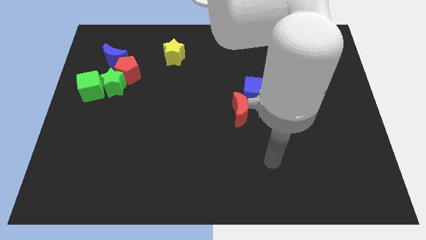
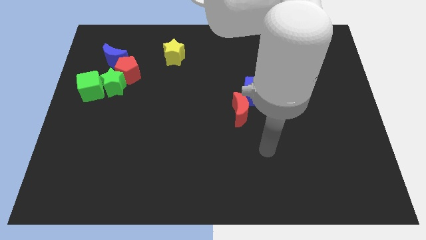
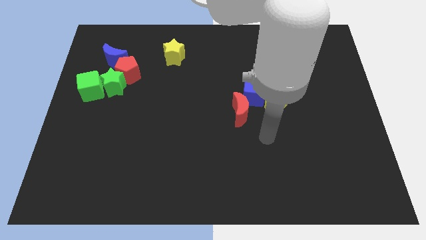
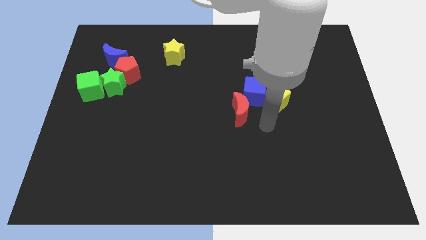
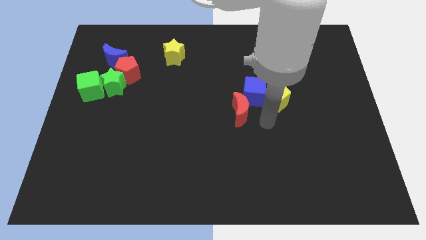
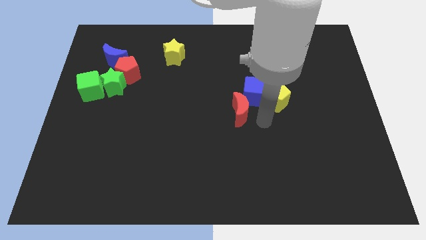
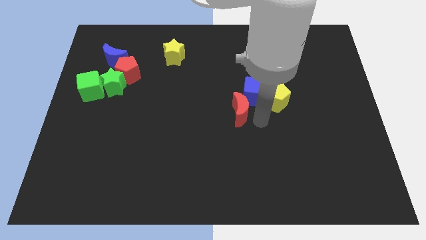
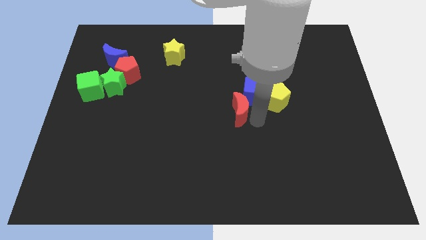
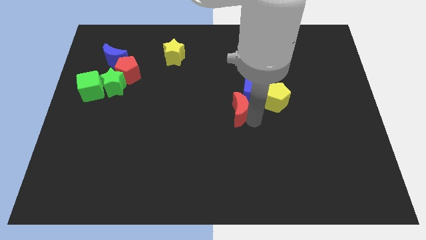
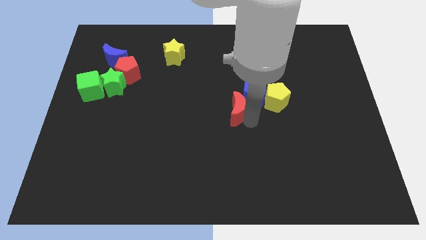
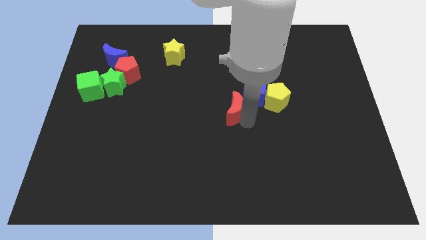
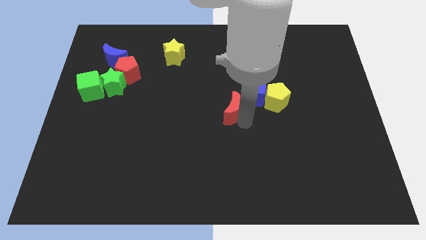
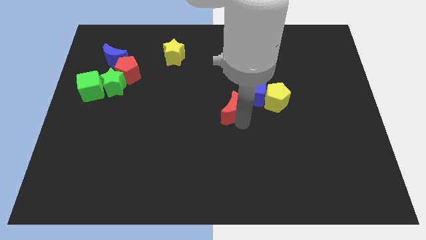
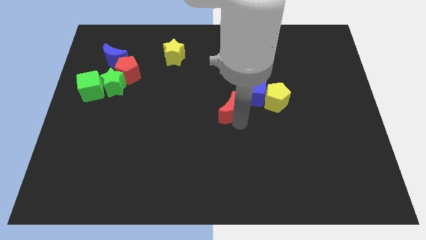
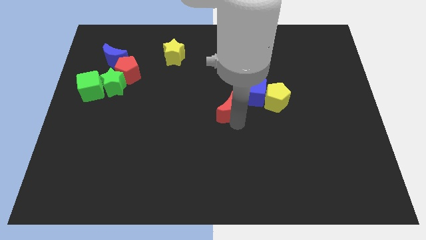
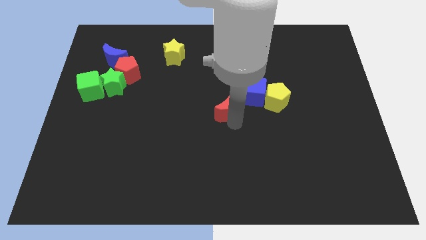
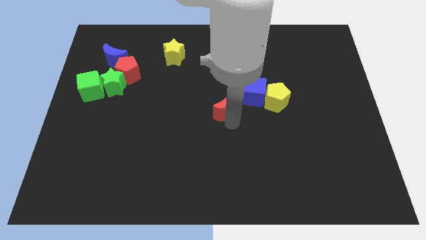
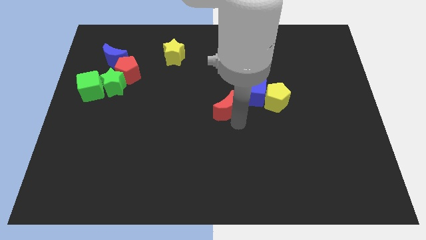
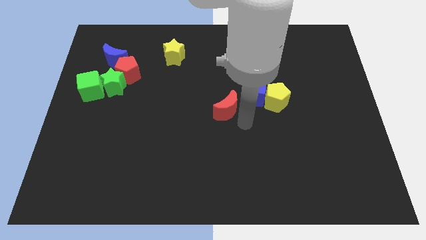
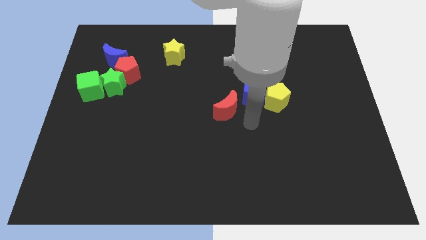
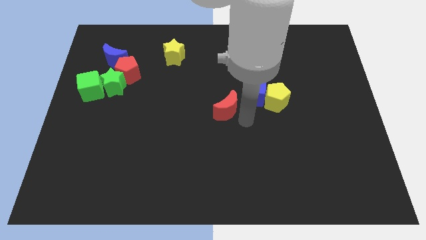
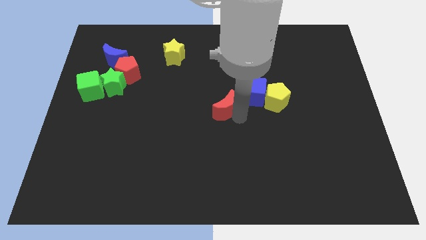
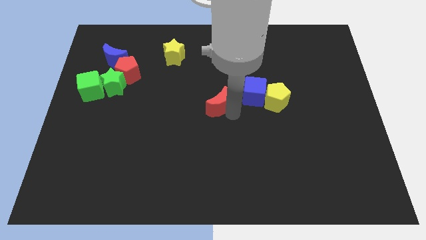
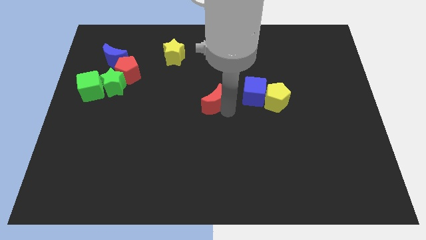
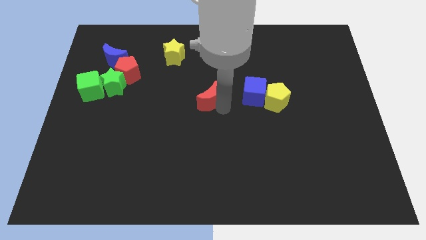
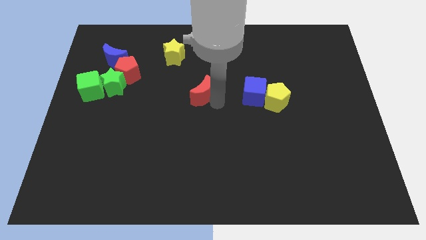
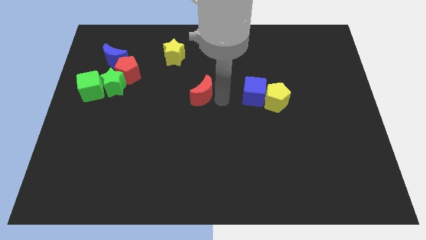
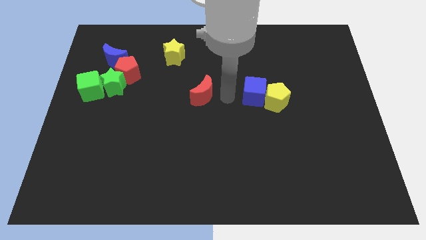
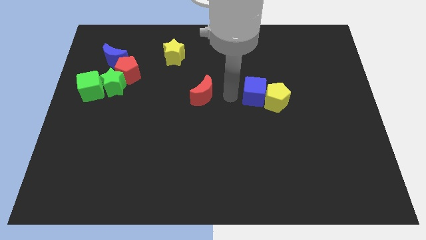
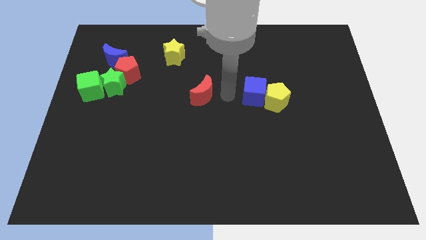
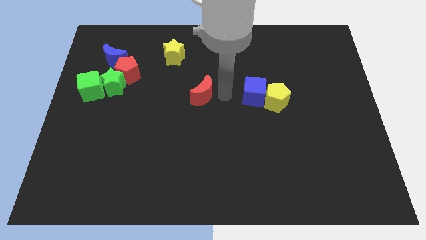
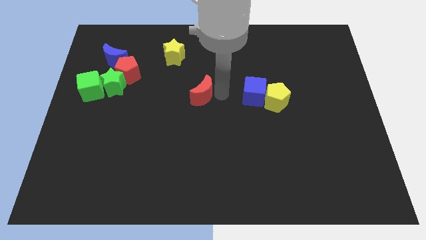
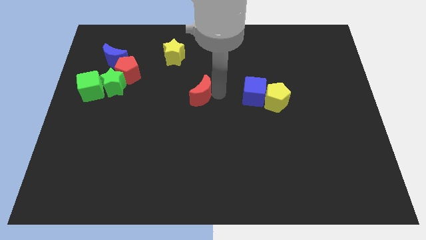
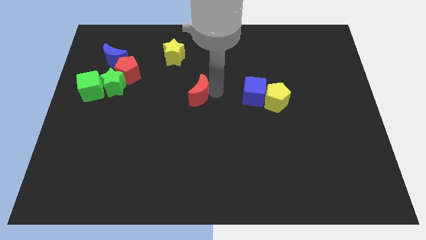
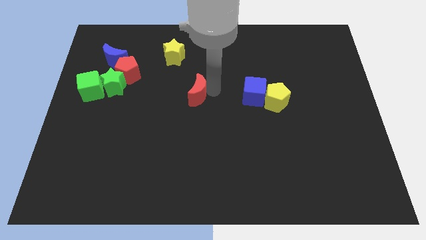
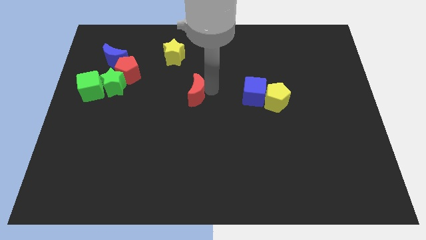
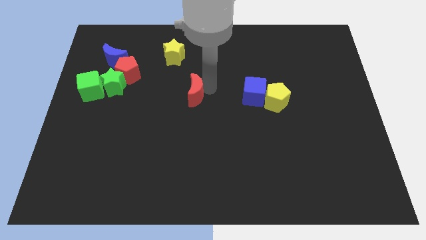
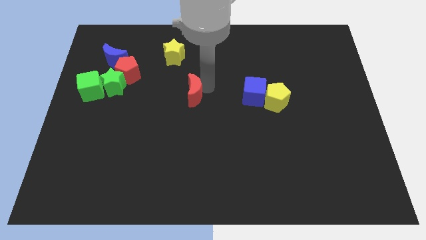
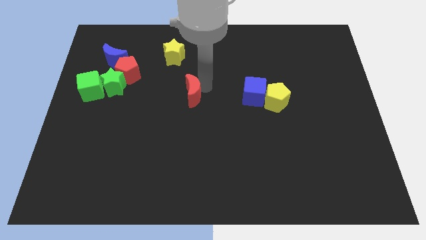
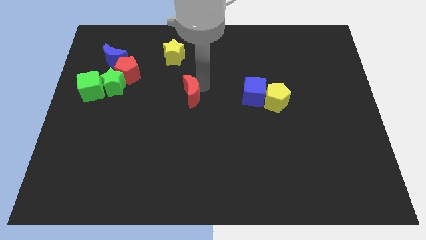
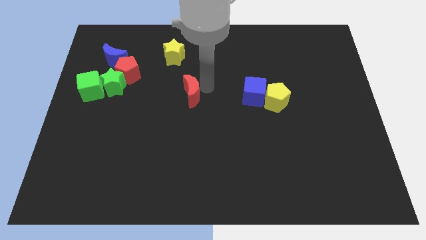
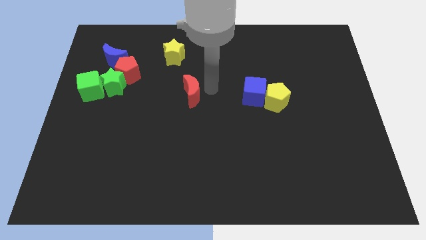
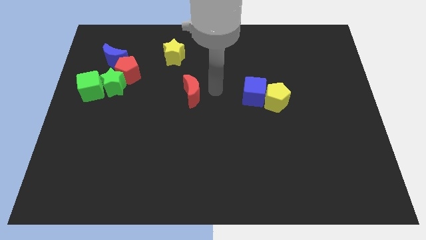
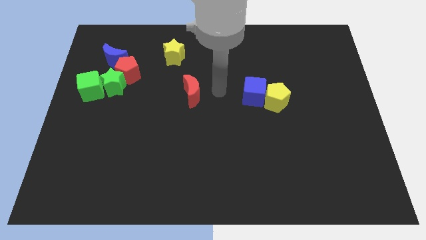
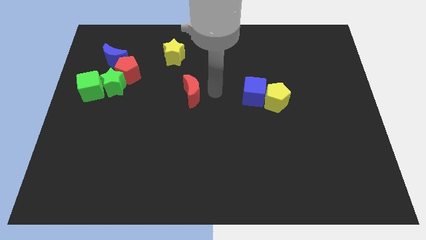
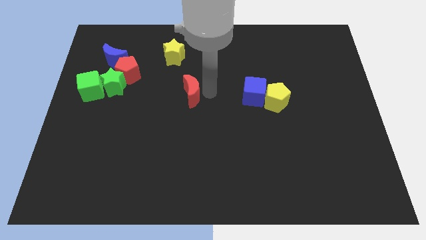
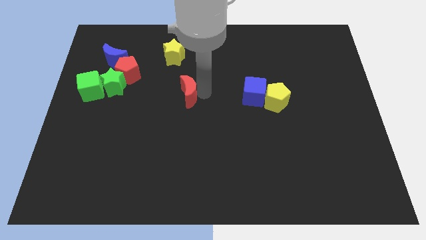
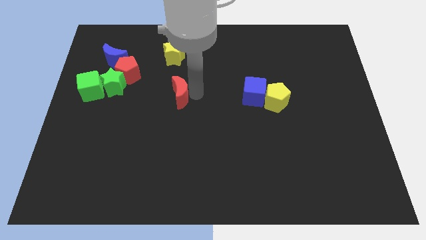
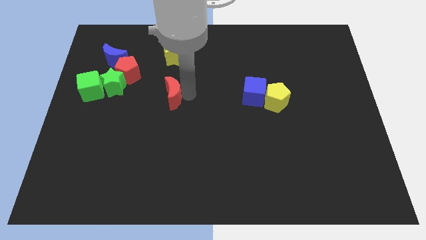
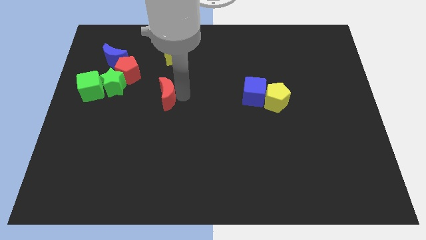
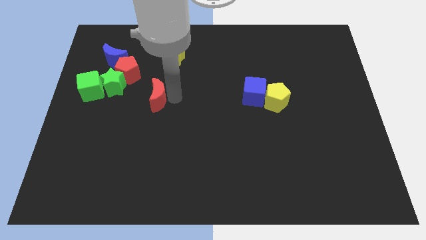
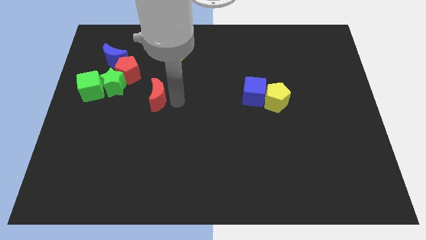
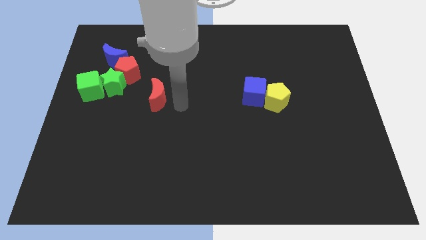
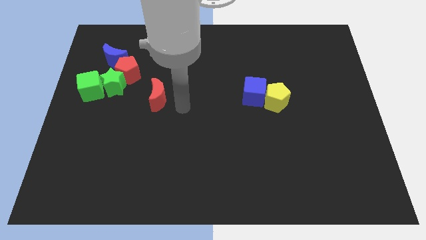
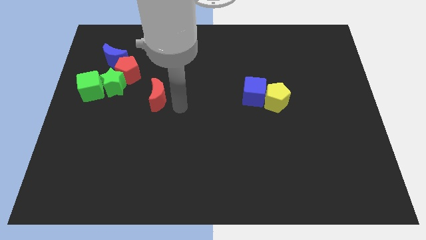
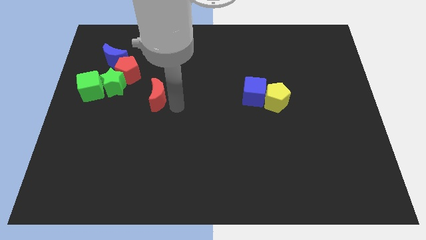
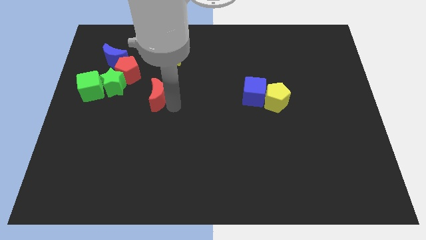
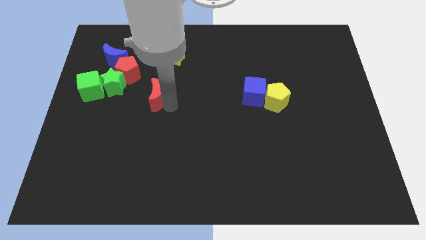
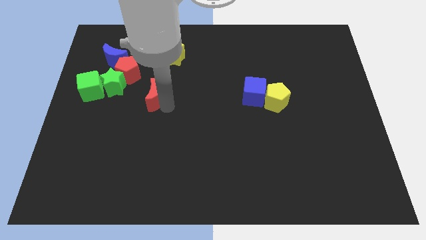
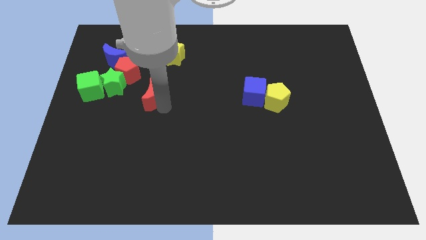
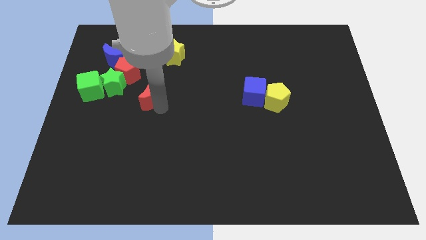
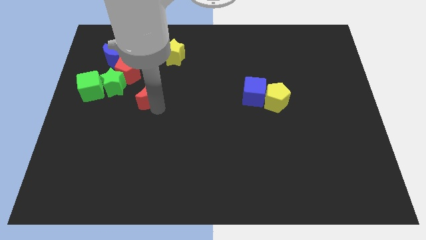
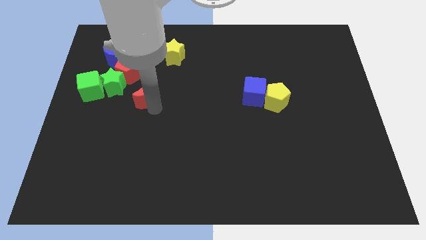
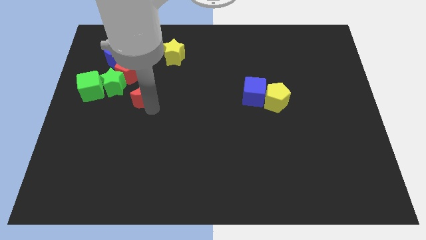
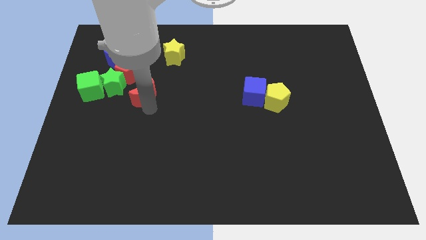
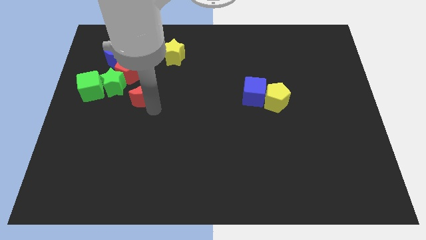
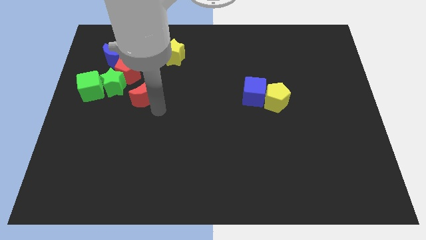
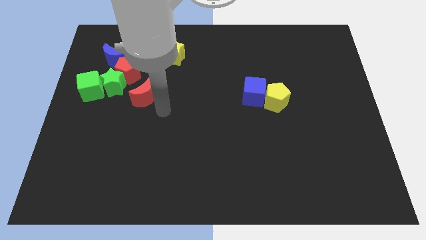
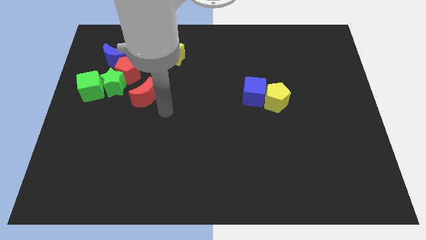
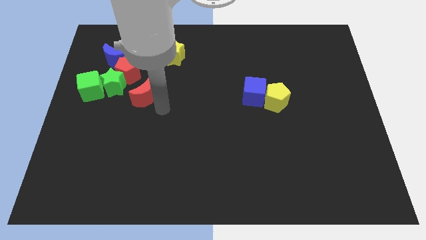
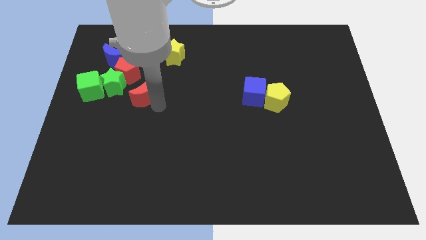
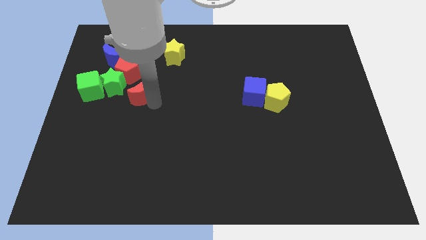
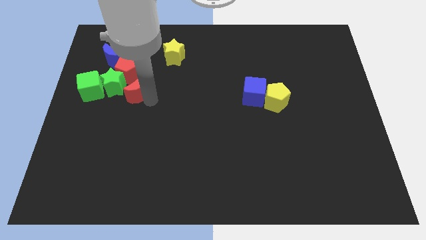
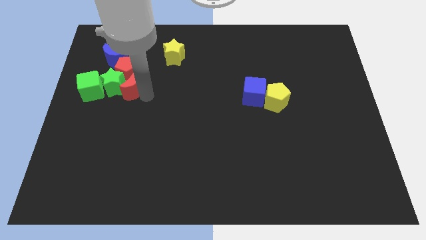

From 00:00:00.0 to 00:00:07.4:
move the red moon next to the green star

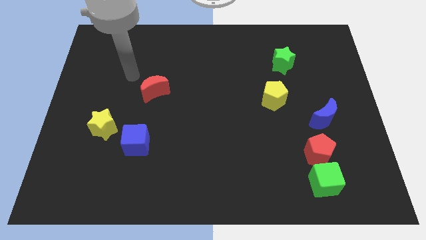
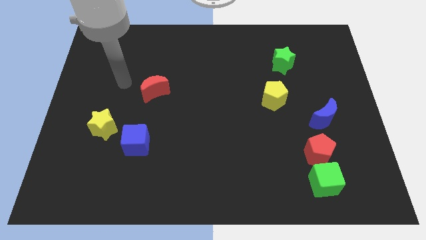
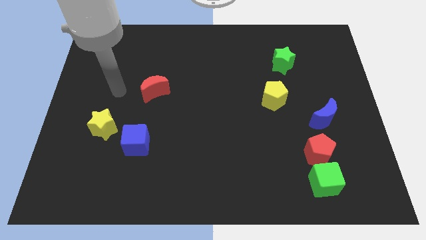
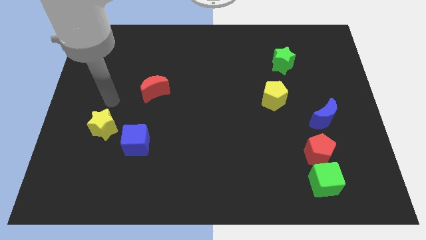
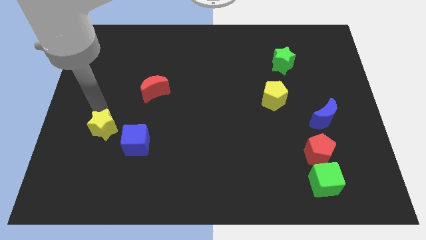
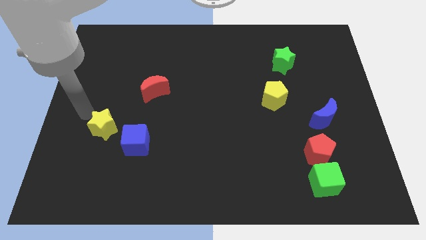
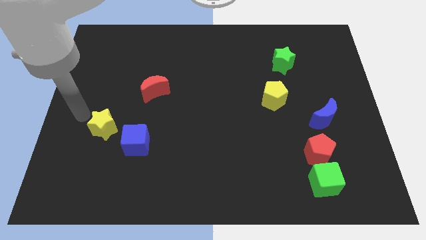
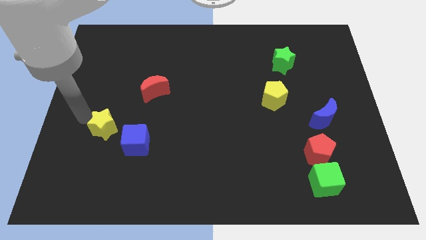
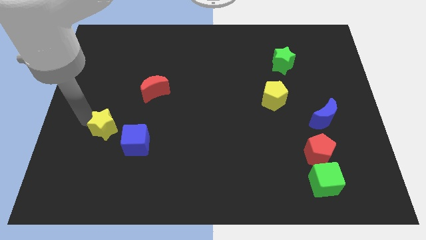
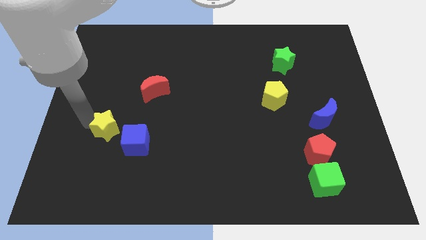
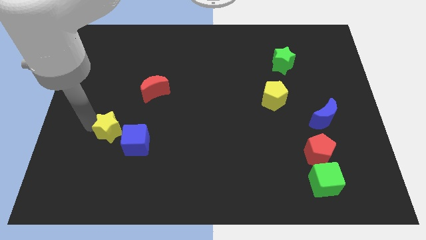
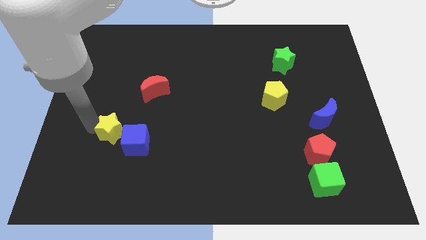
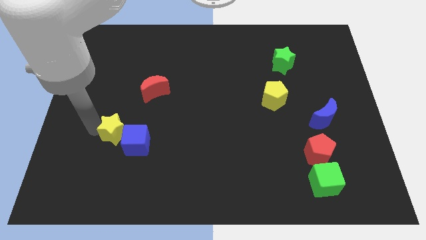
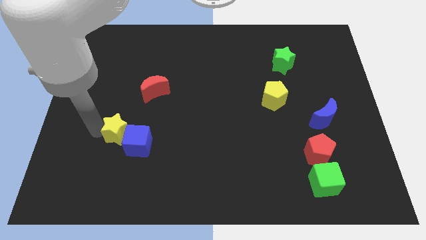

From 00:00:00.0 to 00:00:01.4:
slide the yellow star towards the blue cube
